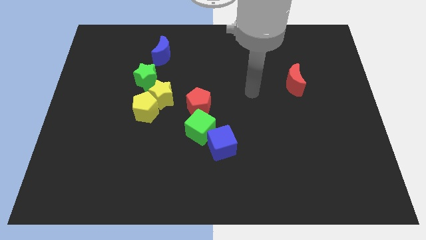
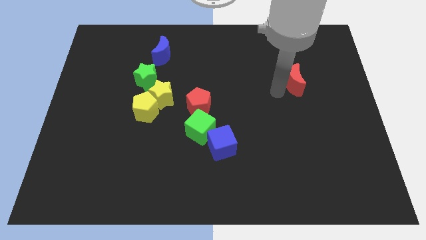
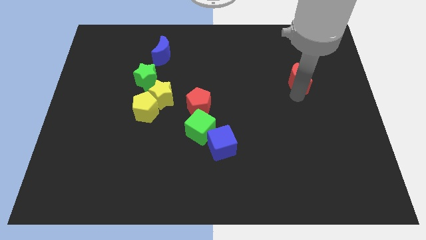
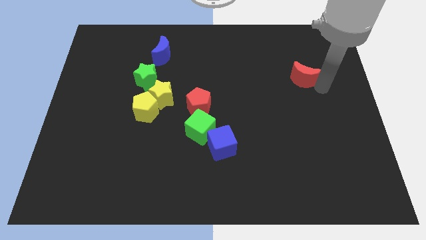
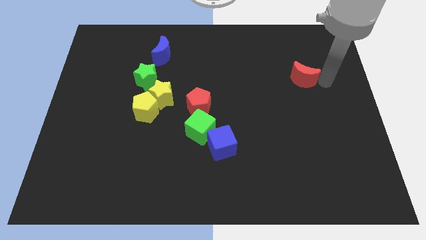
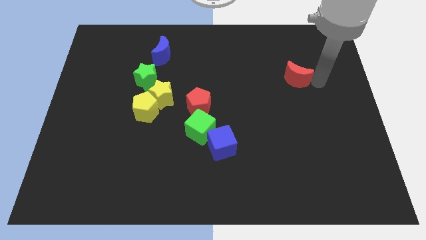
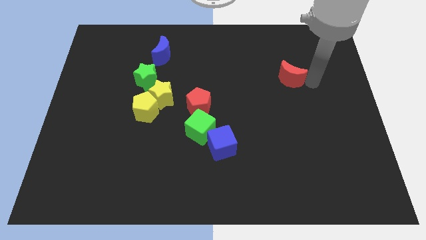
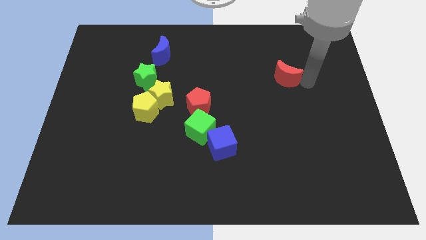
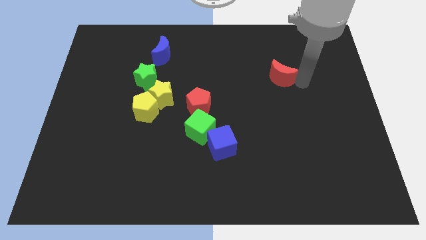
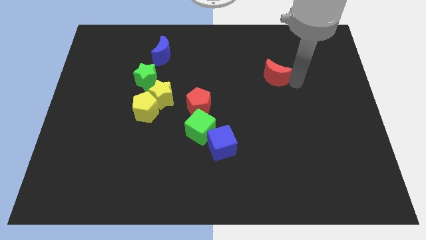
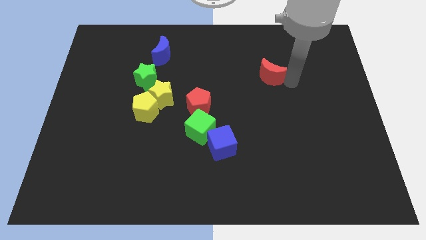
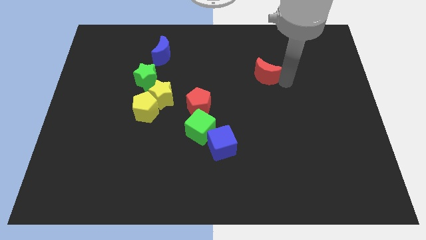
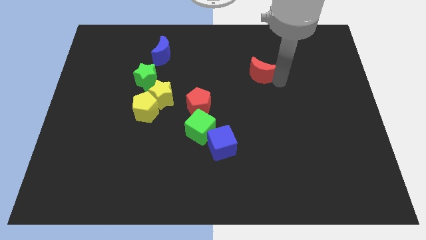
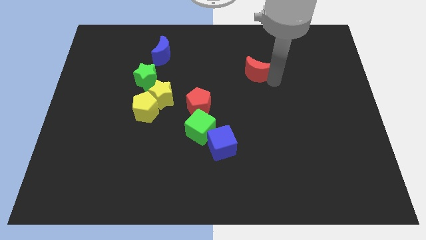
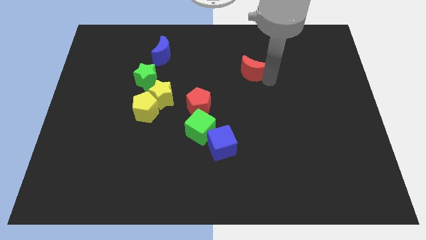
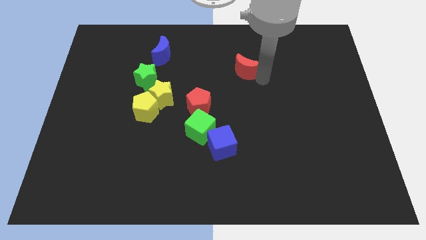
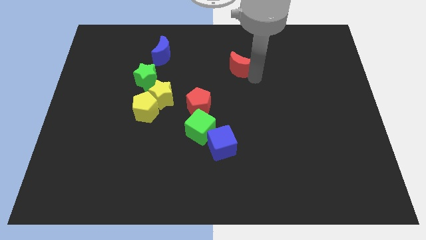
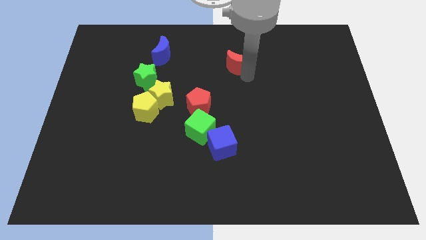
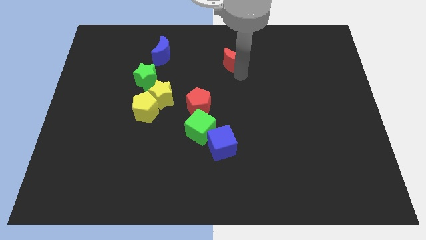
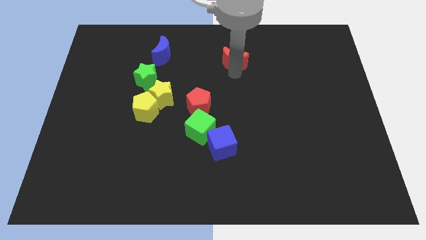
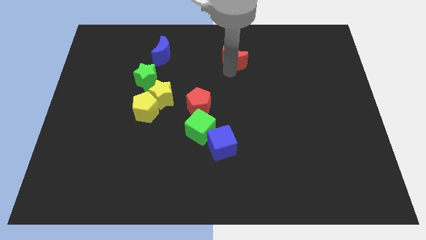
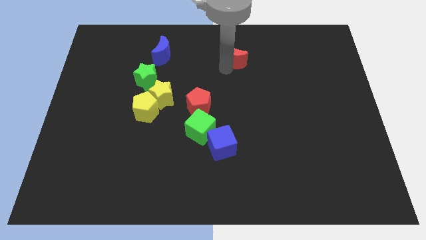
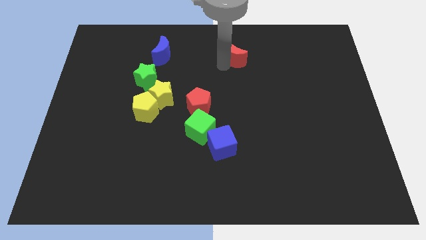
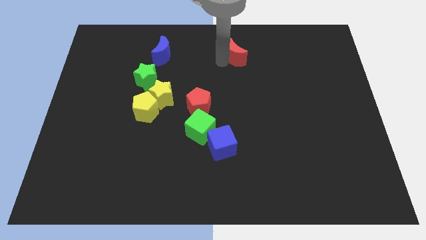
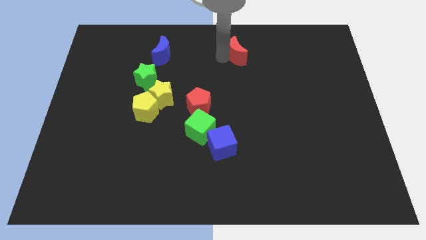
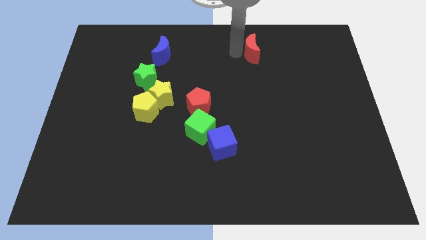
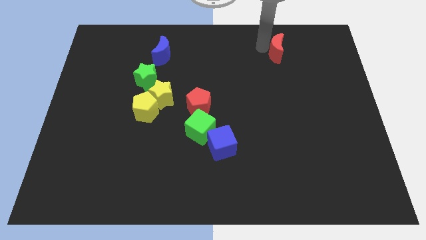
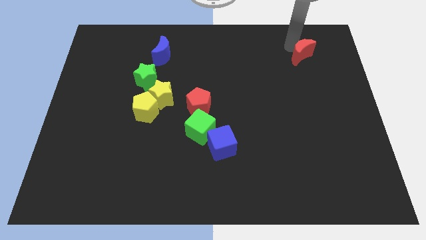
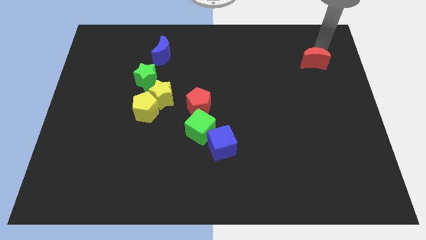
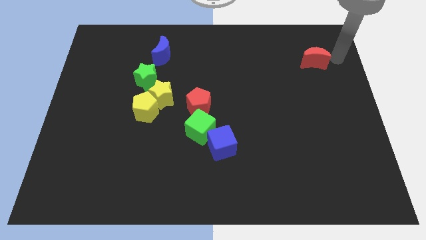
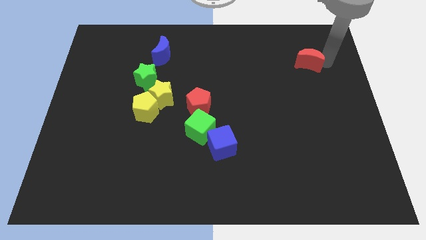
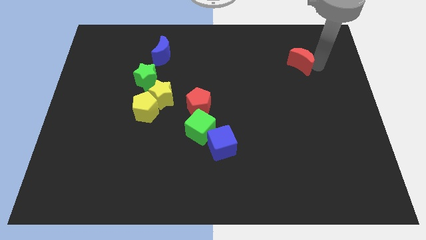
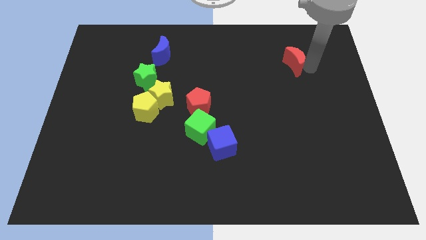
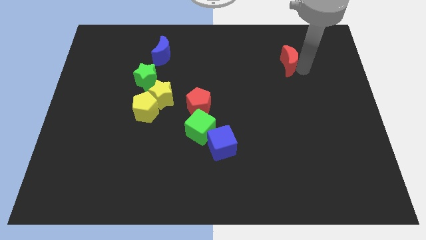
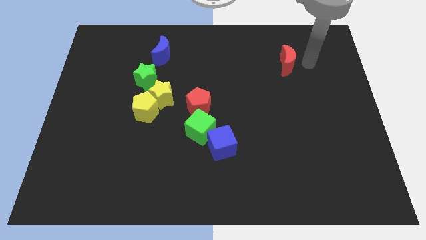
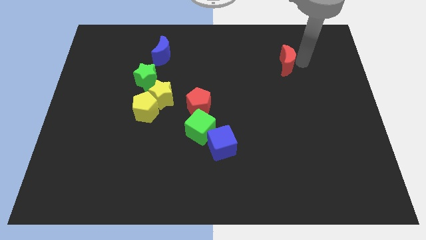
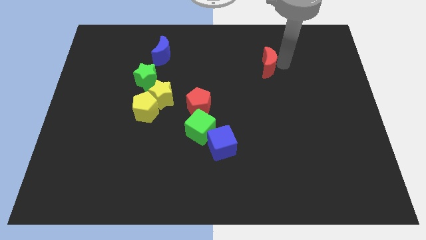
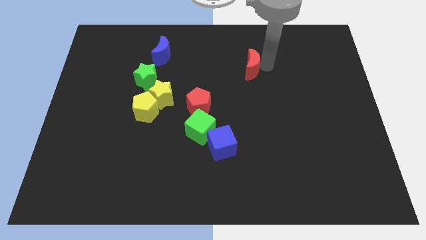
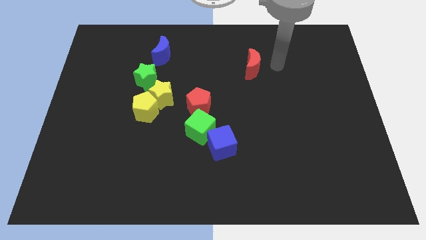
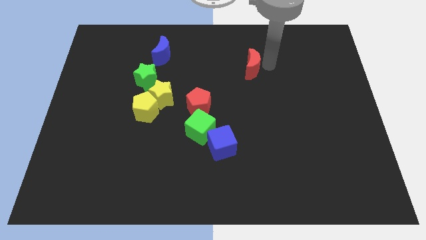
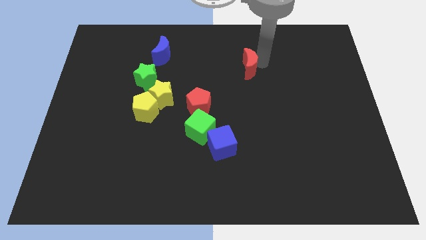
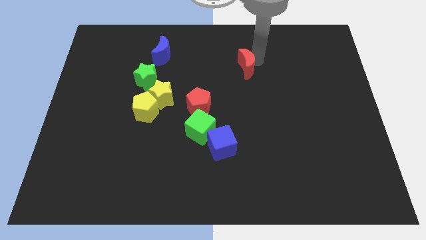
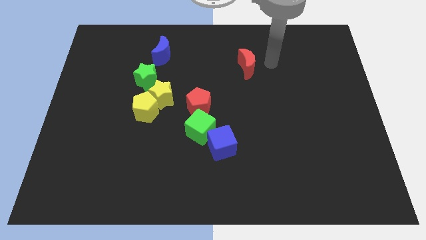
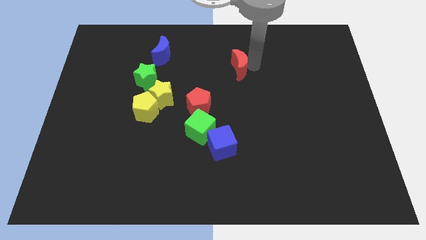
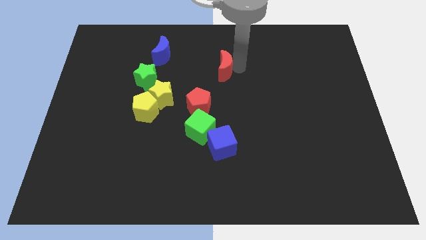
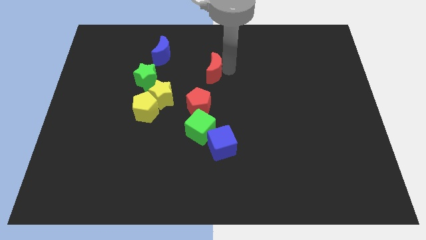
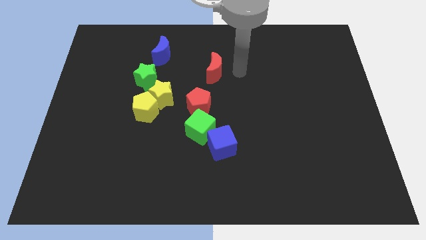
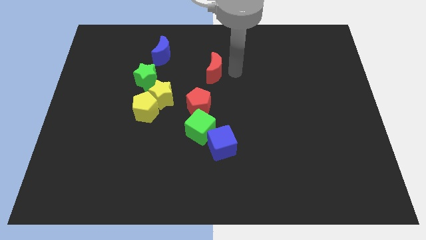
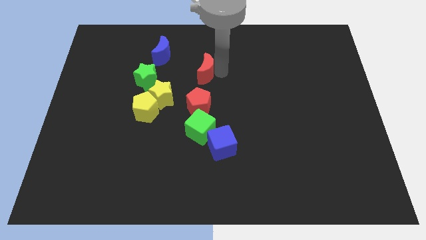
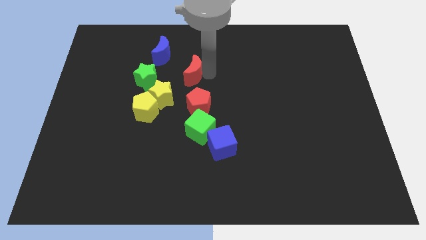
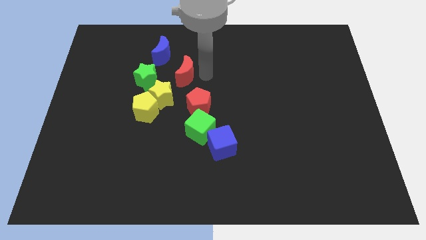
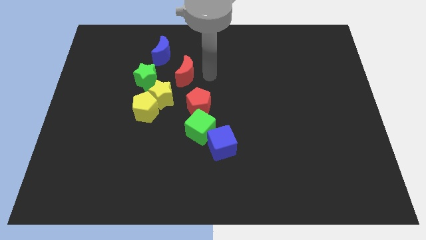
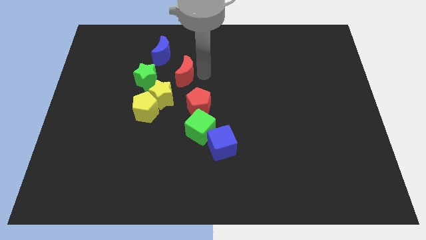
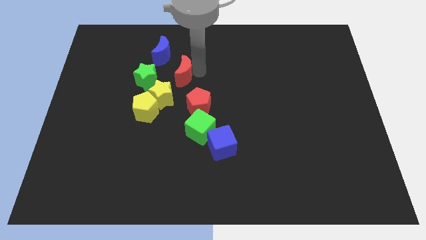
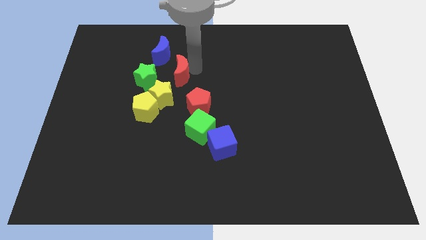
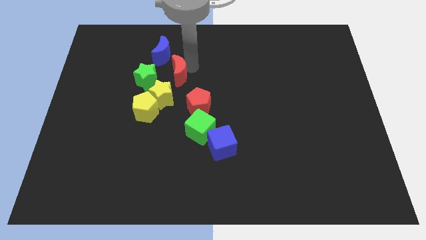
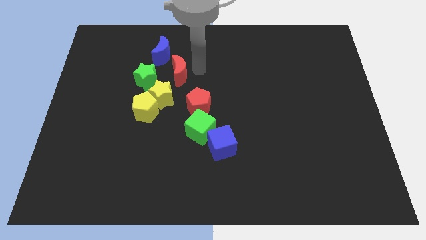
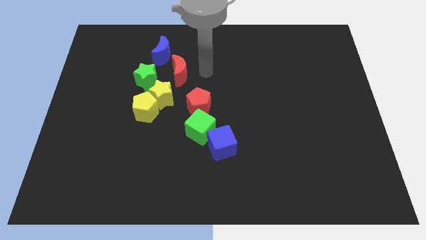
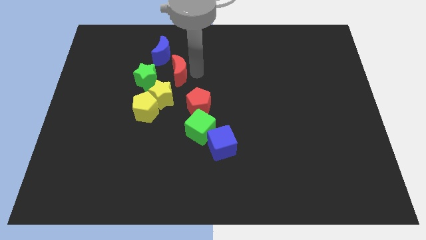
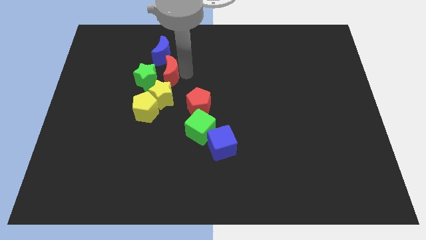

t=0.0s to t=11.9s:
move the red moon to the green star
